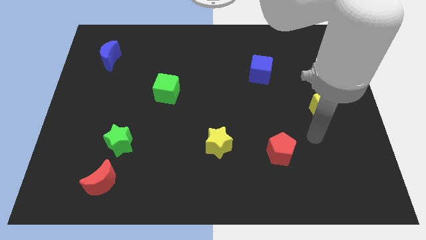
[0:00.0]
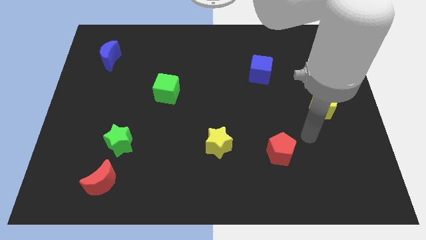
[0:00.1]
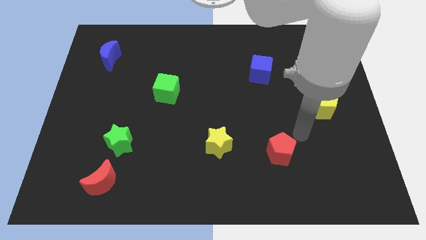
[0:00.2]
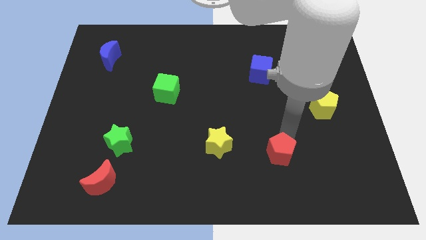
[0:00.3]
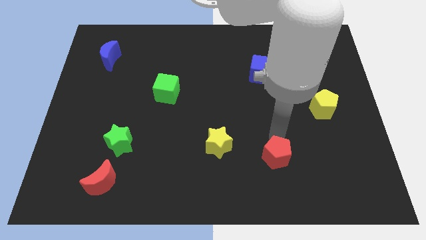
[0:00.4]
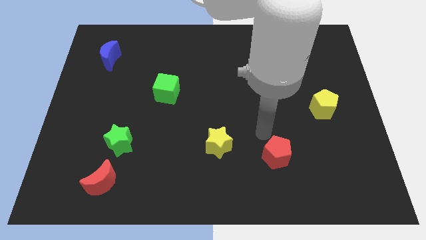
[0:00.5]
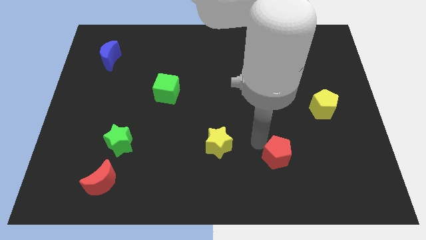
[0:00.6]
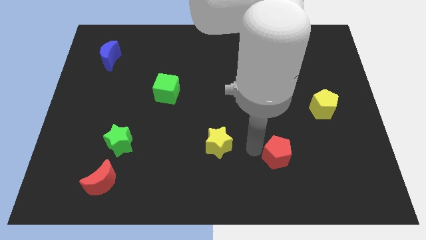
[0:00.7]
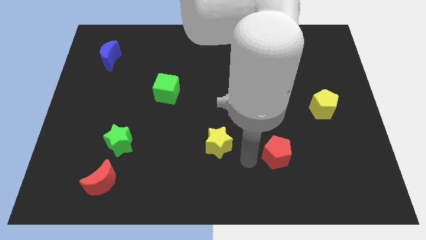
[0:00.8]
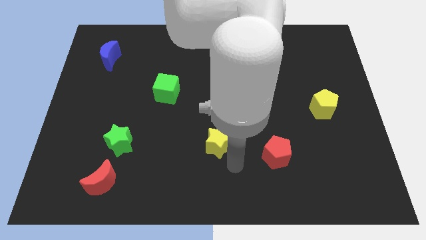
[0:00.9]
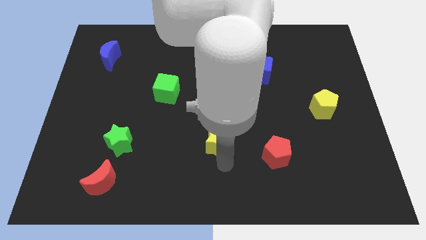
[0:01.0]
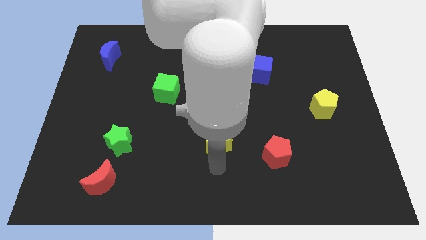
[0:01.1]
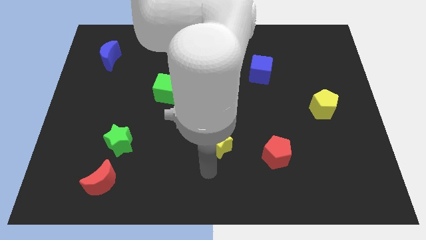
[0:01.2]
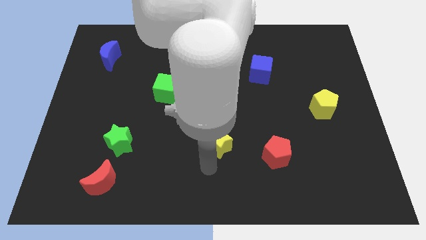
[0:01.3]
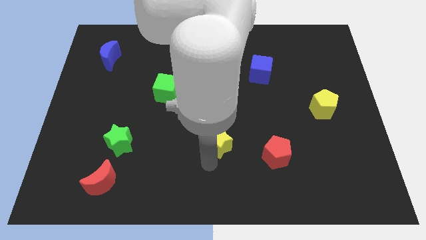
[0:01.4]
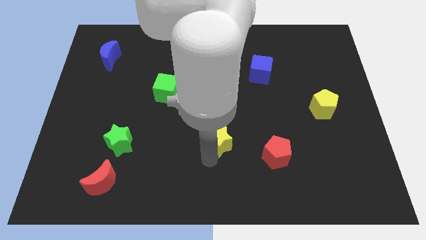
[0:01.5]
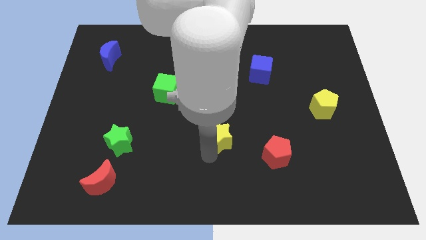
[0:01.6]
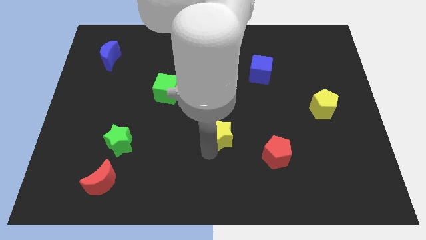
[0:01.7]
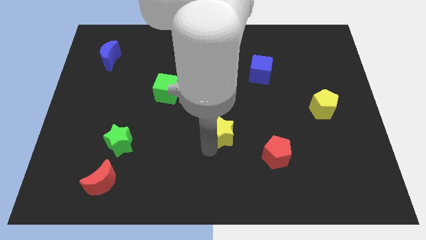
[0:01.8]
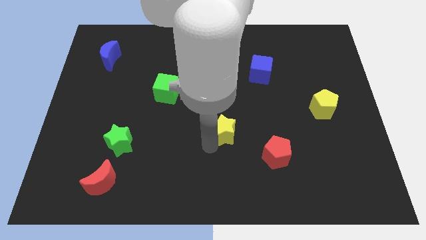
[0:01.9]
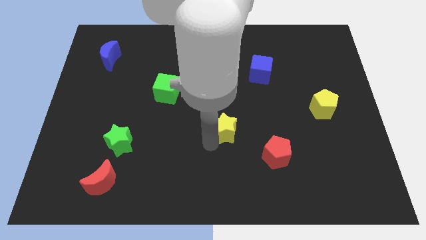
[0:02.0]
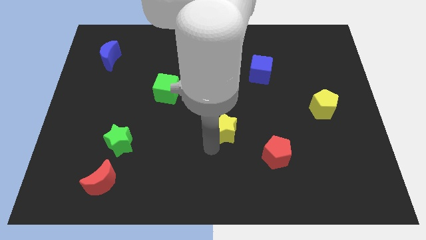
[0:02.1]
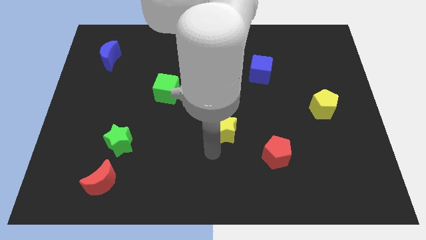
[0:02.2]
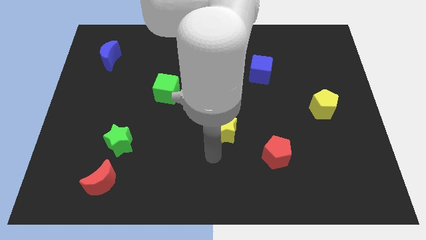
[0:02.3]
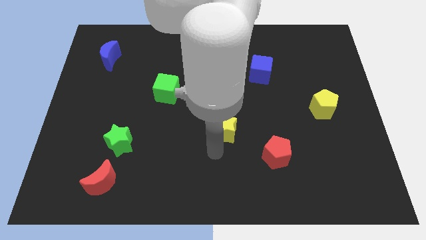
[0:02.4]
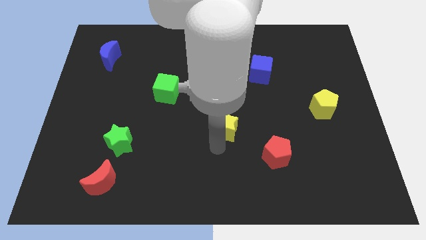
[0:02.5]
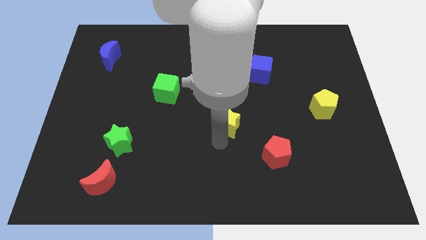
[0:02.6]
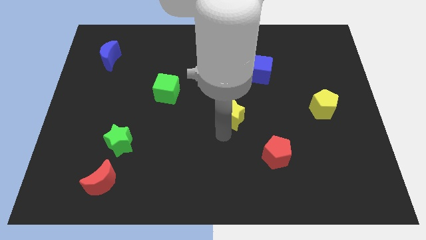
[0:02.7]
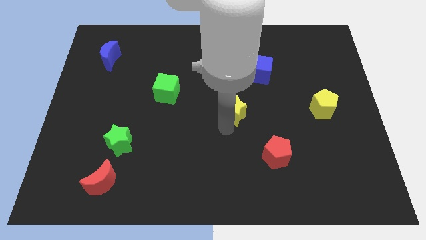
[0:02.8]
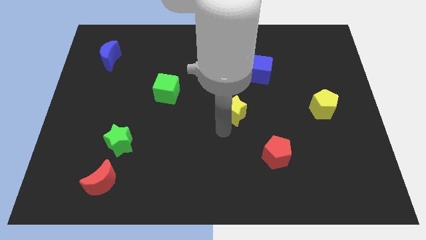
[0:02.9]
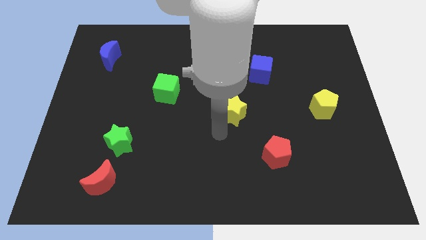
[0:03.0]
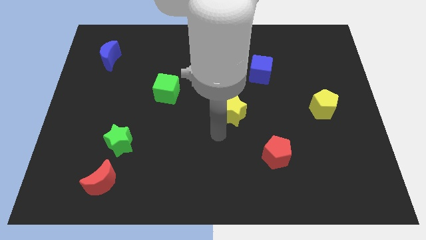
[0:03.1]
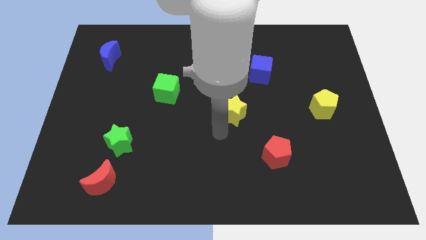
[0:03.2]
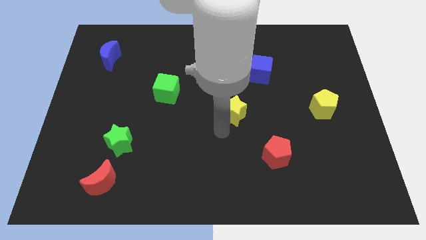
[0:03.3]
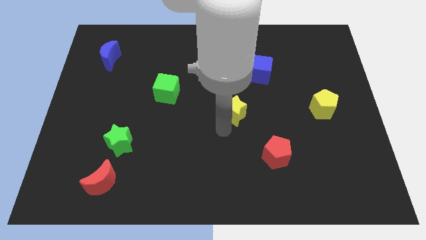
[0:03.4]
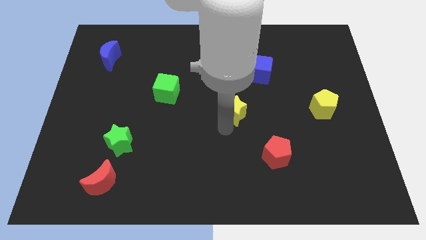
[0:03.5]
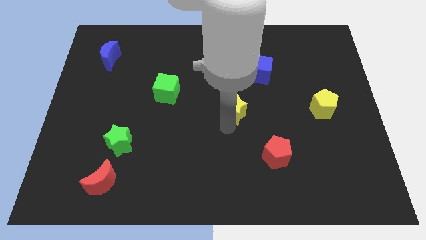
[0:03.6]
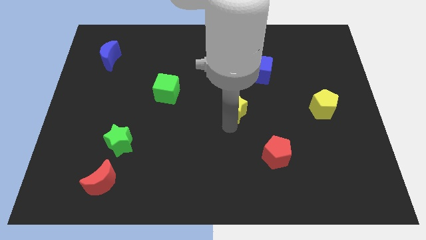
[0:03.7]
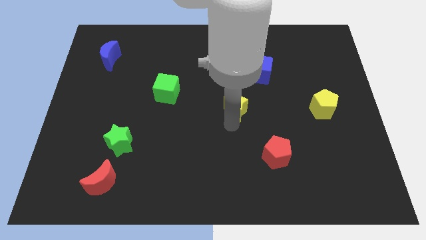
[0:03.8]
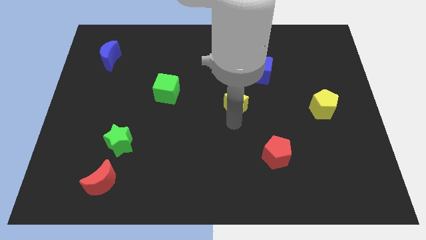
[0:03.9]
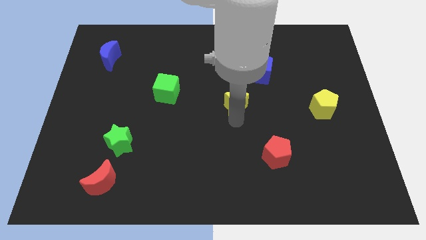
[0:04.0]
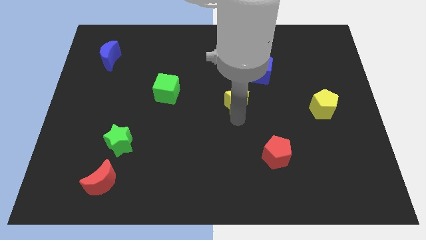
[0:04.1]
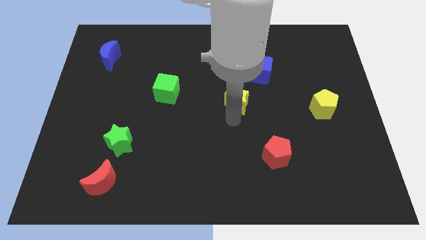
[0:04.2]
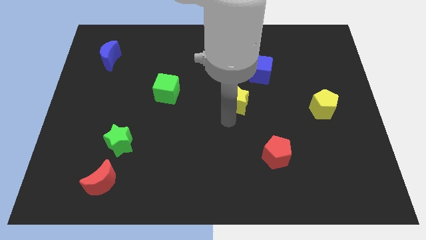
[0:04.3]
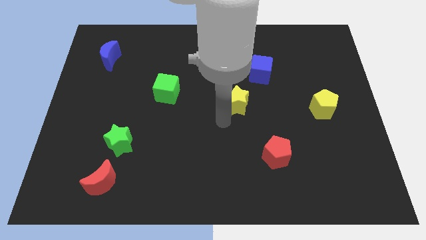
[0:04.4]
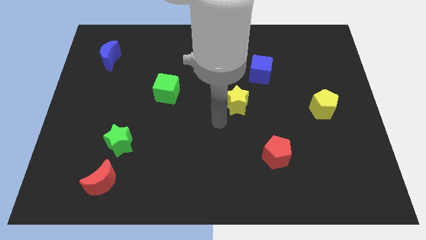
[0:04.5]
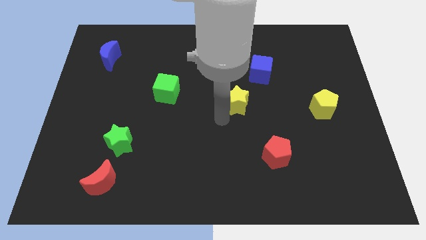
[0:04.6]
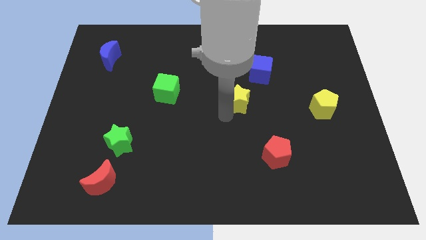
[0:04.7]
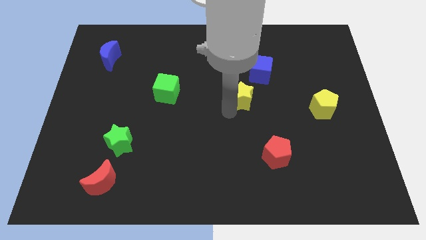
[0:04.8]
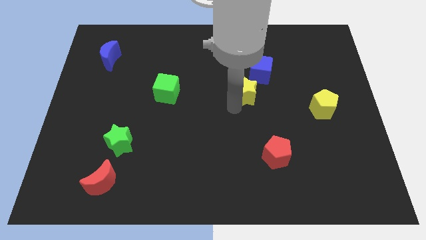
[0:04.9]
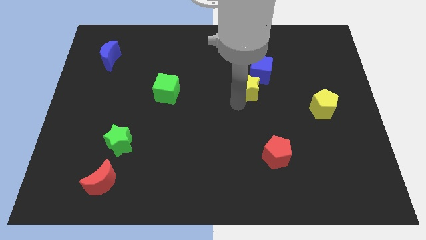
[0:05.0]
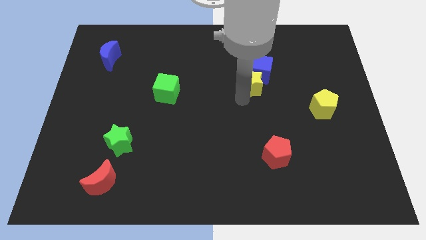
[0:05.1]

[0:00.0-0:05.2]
push the yellow star towards the blue cube

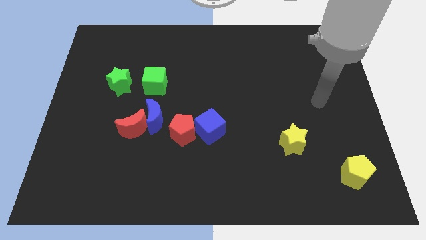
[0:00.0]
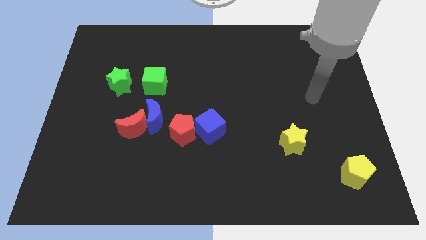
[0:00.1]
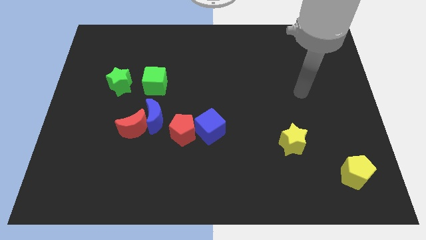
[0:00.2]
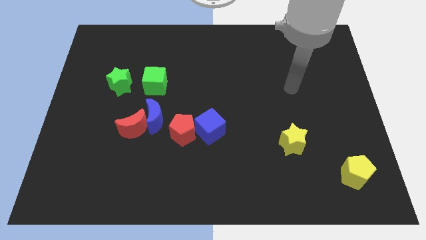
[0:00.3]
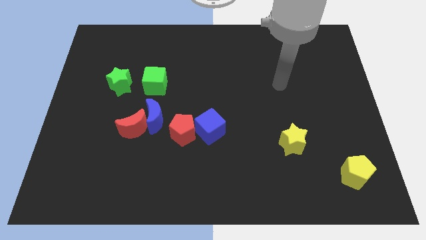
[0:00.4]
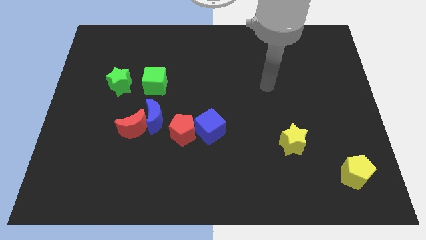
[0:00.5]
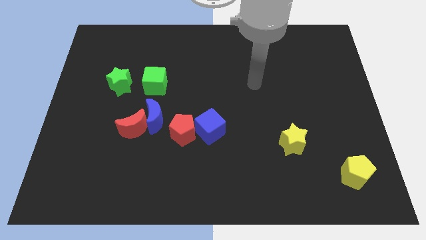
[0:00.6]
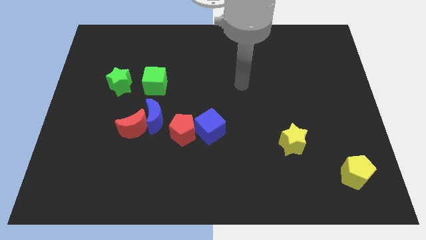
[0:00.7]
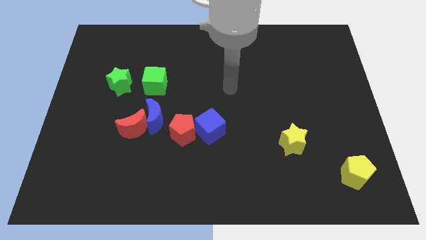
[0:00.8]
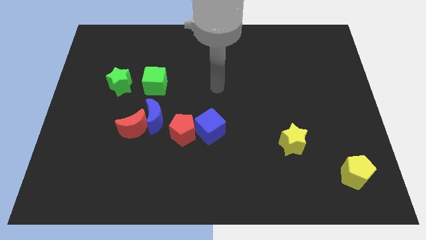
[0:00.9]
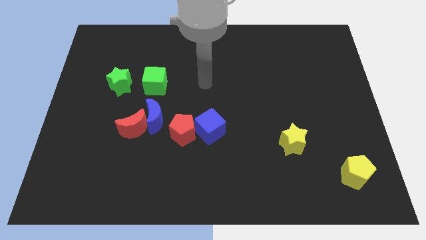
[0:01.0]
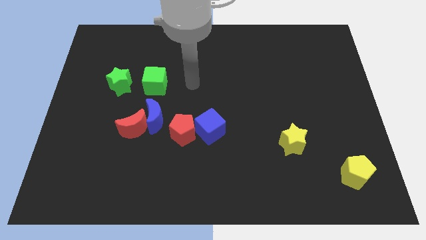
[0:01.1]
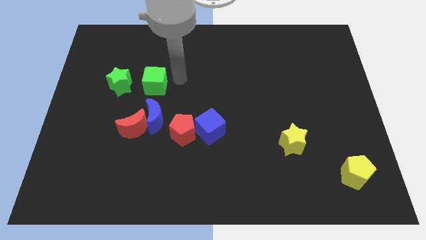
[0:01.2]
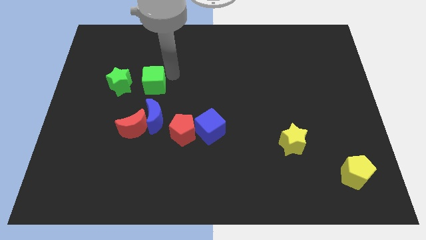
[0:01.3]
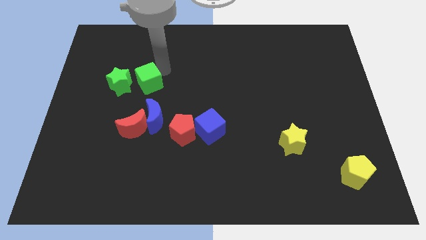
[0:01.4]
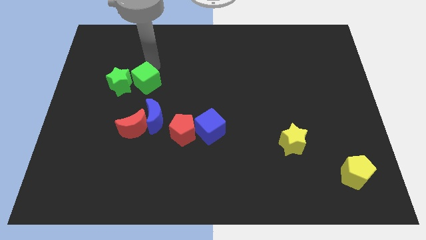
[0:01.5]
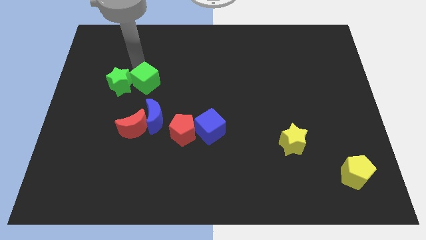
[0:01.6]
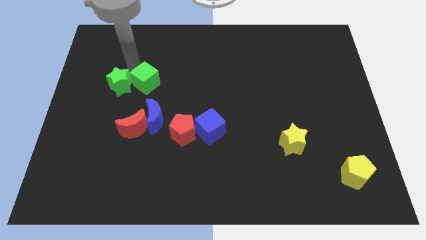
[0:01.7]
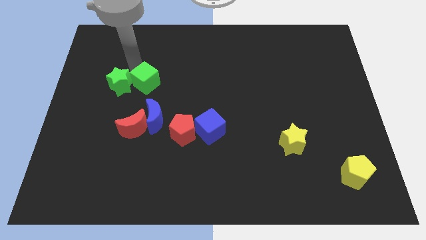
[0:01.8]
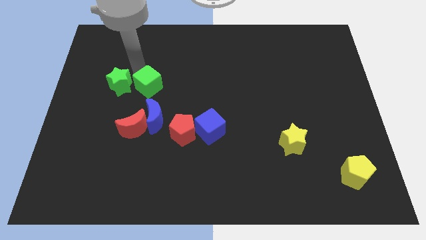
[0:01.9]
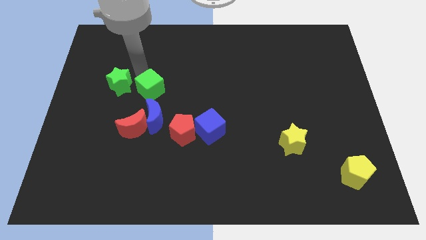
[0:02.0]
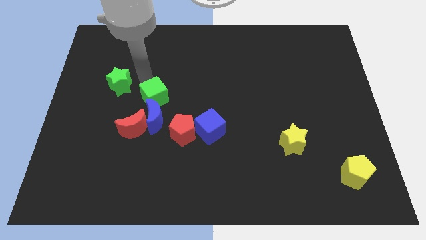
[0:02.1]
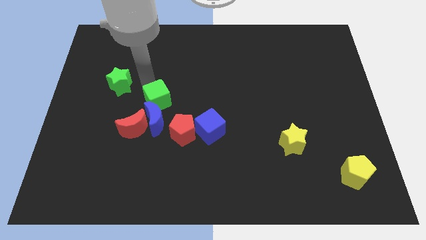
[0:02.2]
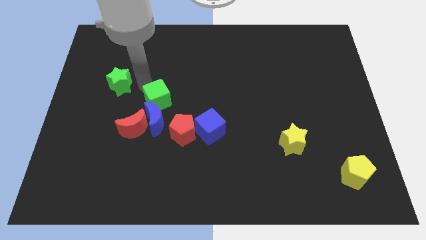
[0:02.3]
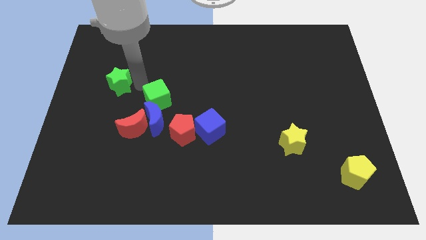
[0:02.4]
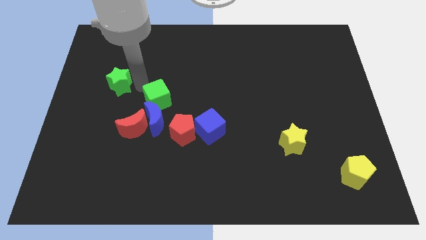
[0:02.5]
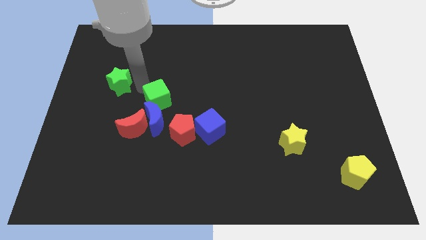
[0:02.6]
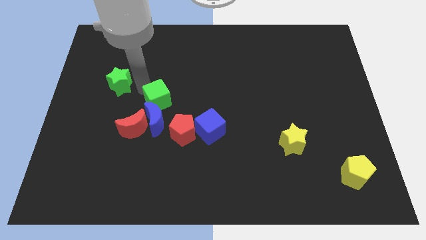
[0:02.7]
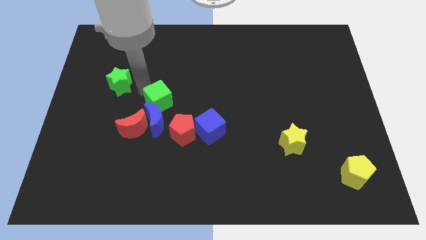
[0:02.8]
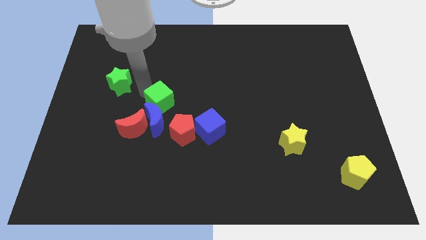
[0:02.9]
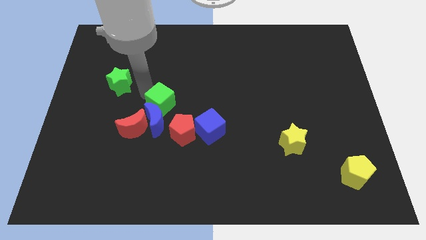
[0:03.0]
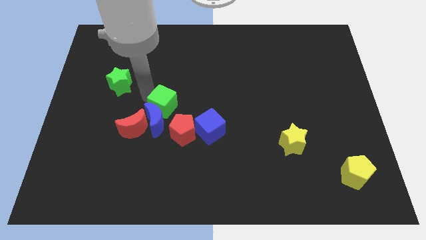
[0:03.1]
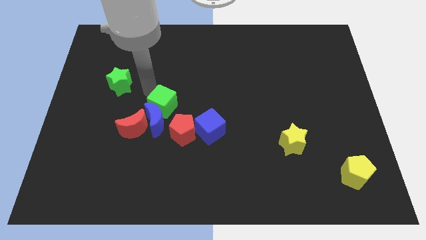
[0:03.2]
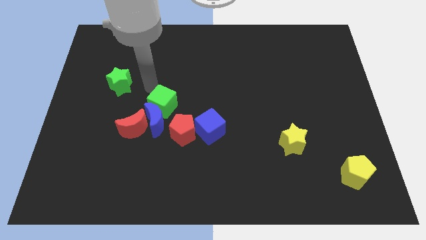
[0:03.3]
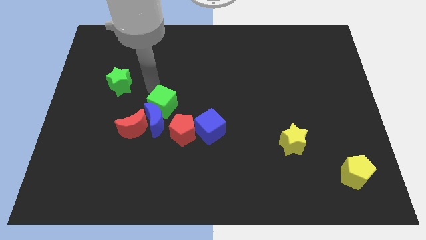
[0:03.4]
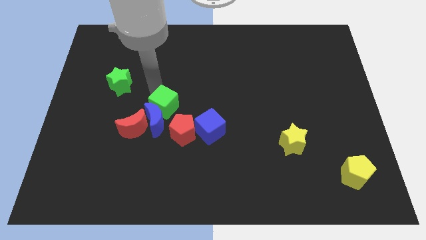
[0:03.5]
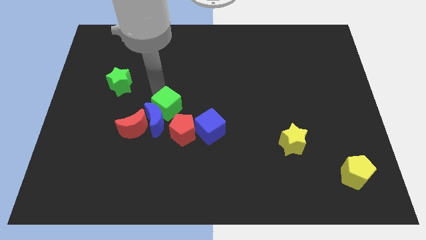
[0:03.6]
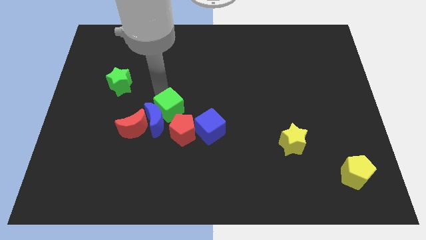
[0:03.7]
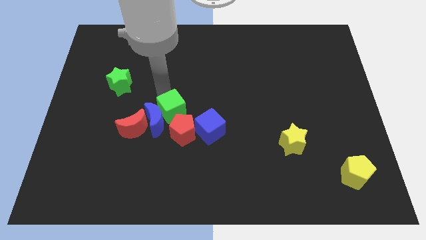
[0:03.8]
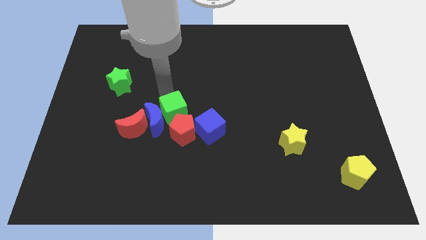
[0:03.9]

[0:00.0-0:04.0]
move the green cube close to the red pentagon
